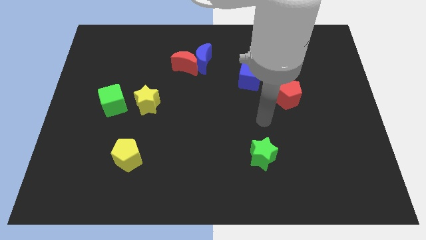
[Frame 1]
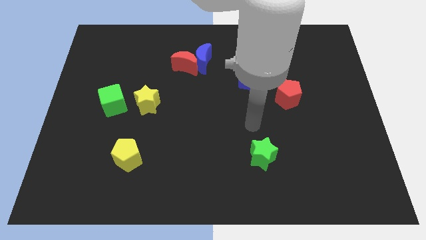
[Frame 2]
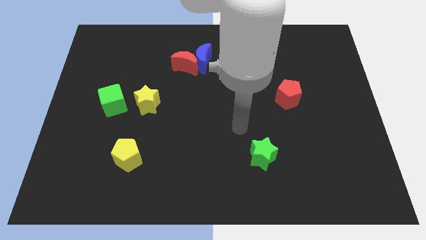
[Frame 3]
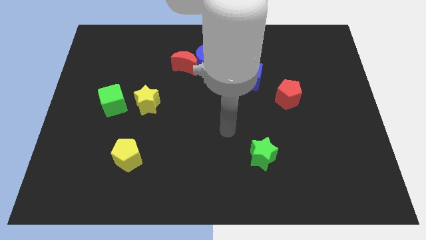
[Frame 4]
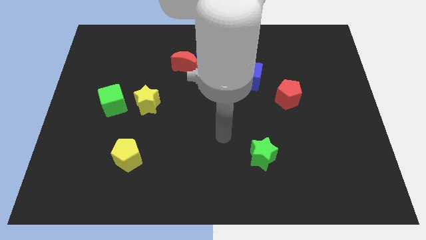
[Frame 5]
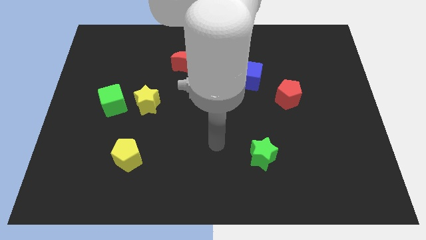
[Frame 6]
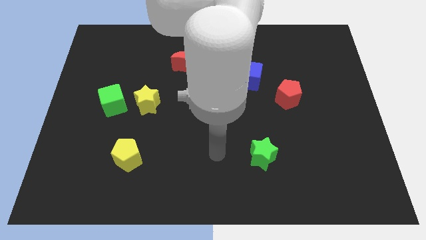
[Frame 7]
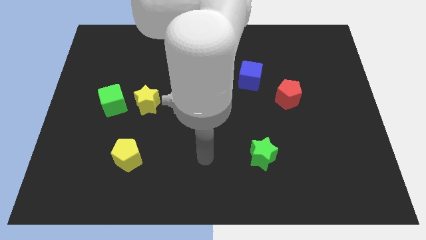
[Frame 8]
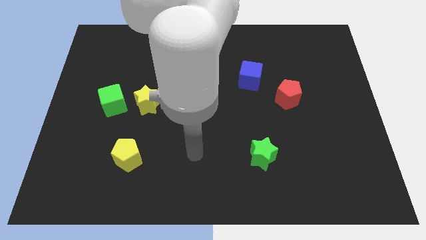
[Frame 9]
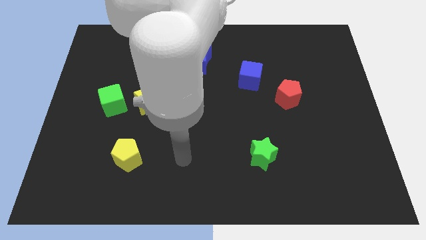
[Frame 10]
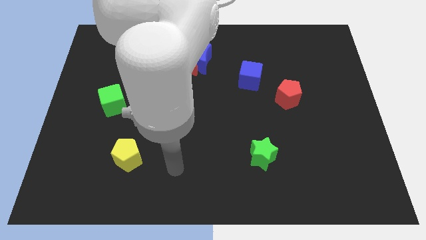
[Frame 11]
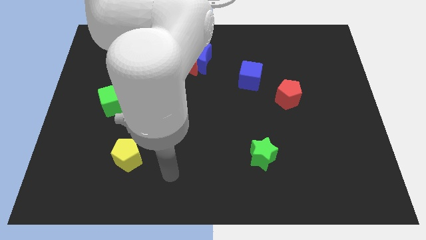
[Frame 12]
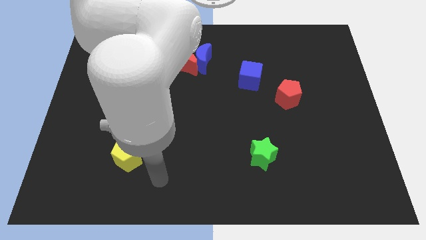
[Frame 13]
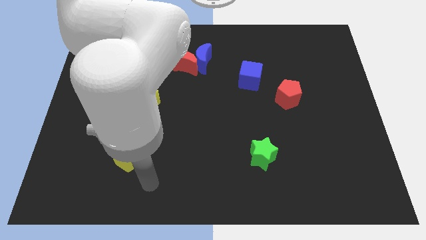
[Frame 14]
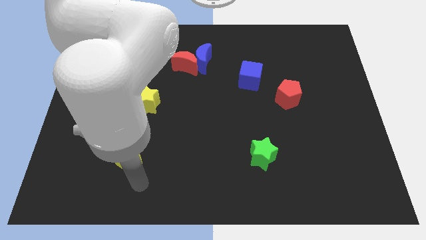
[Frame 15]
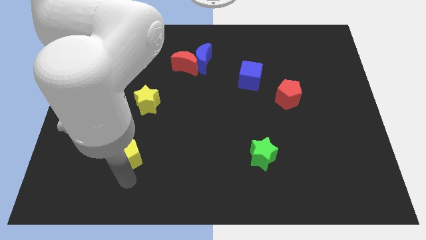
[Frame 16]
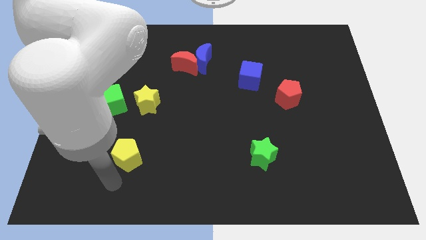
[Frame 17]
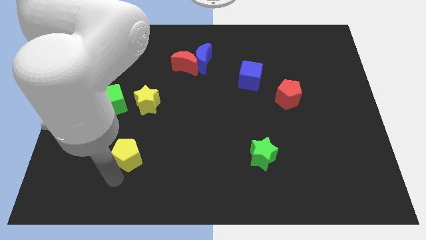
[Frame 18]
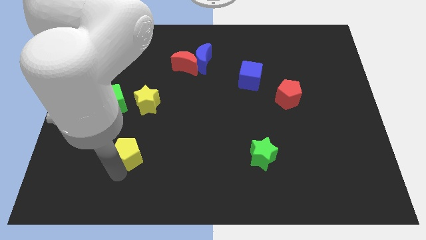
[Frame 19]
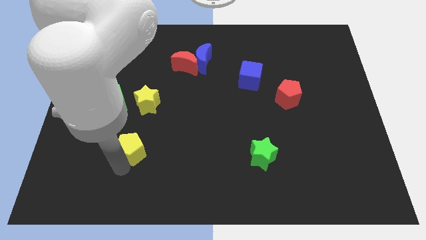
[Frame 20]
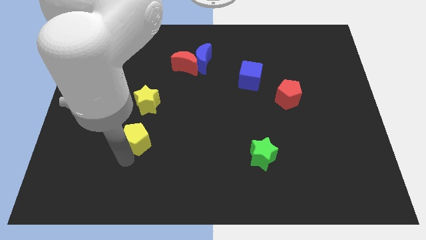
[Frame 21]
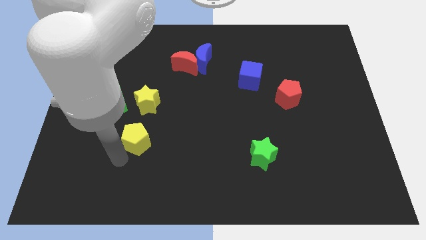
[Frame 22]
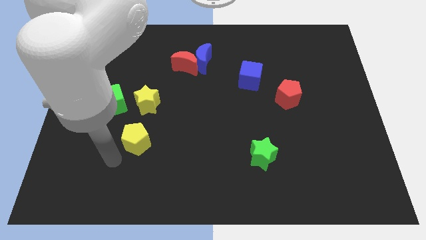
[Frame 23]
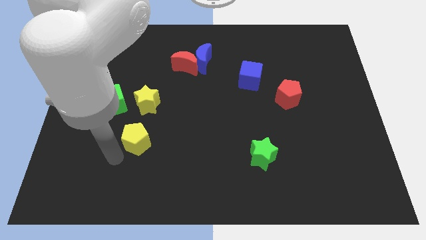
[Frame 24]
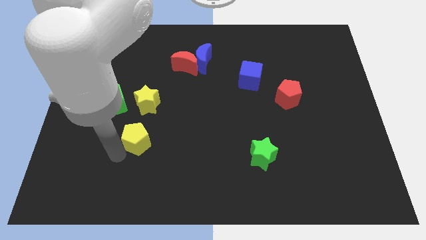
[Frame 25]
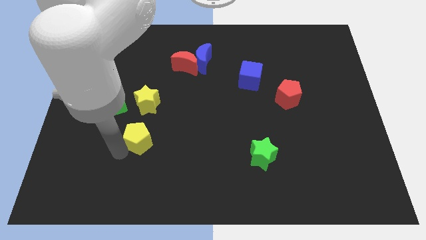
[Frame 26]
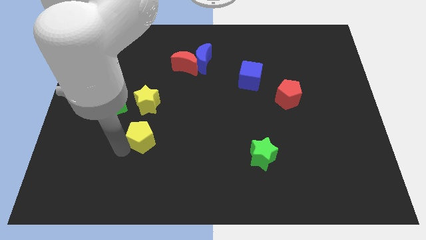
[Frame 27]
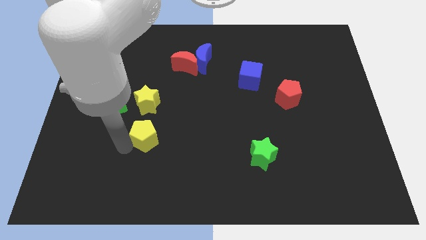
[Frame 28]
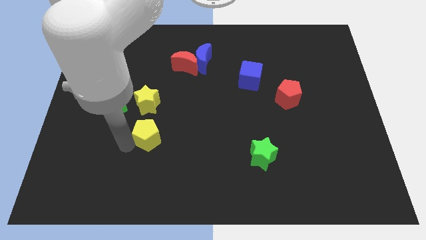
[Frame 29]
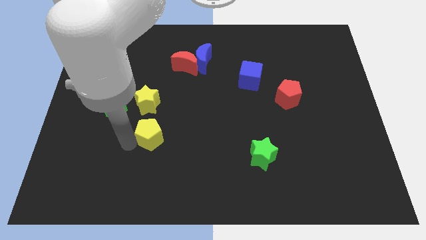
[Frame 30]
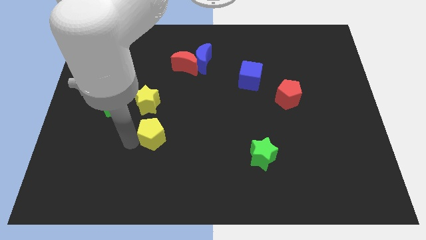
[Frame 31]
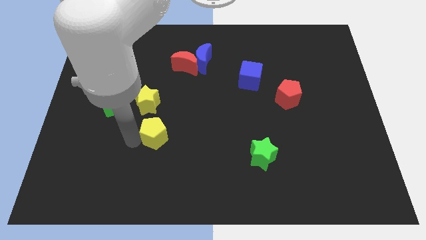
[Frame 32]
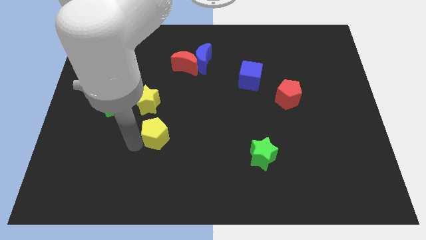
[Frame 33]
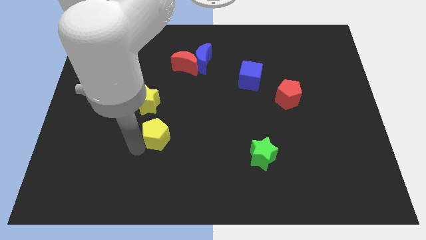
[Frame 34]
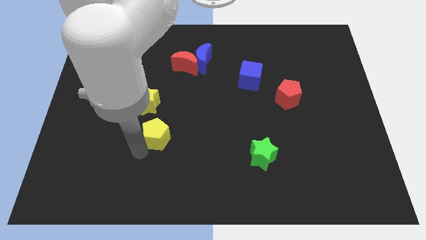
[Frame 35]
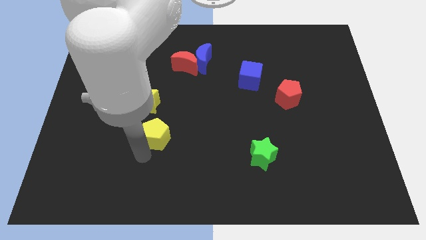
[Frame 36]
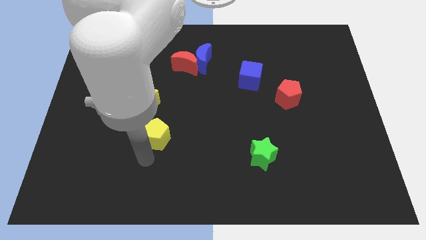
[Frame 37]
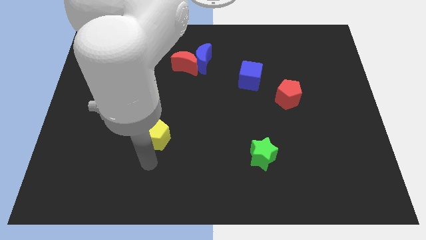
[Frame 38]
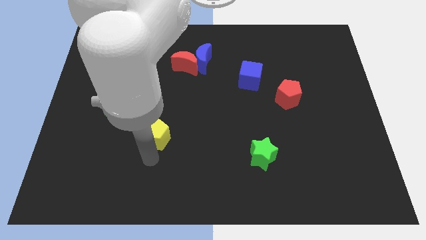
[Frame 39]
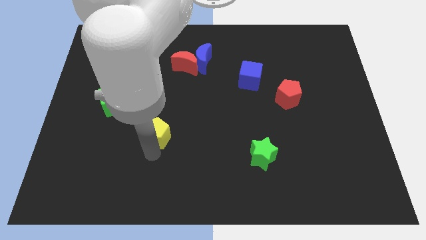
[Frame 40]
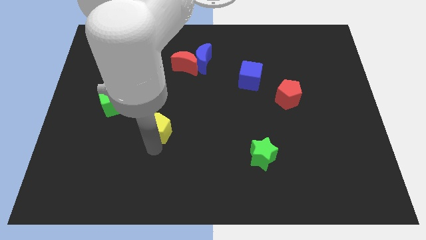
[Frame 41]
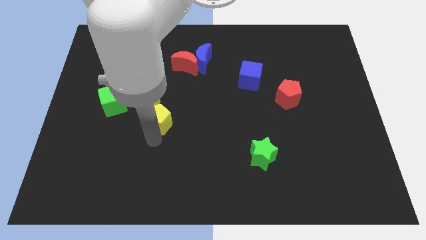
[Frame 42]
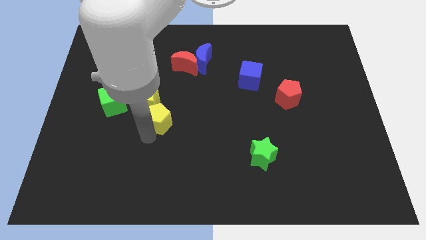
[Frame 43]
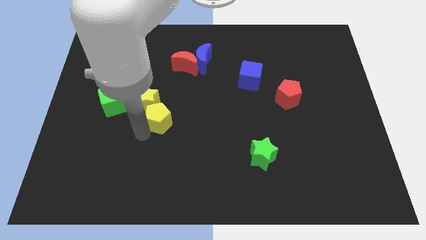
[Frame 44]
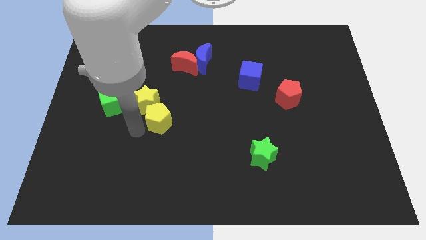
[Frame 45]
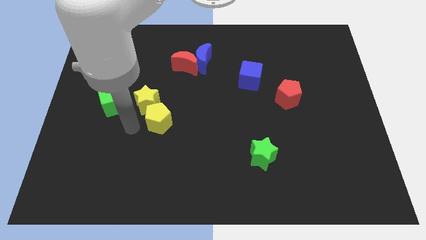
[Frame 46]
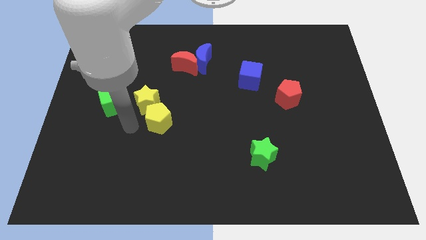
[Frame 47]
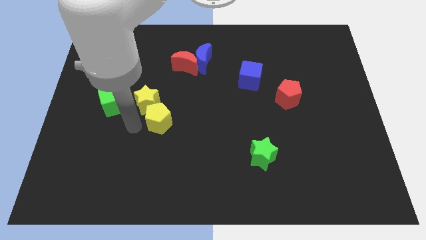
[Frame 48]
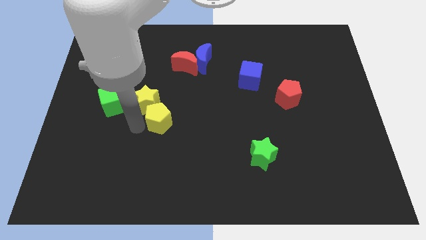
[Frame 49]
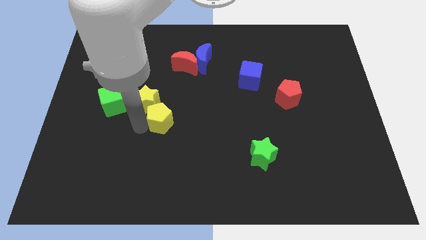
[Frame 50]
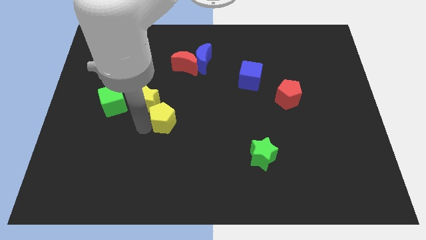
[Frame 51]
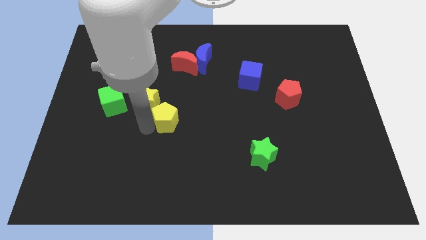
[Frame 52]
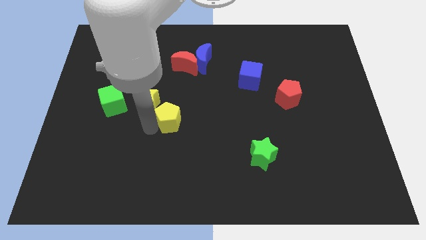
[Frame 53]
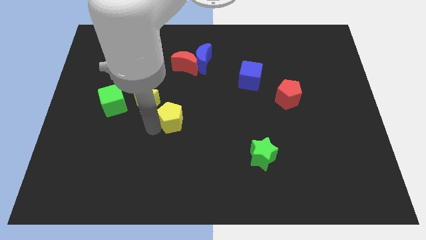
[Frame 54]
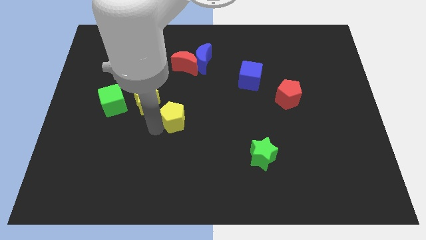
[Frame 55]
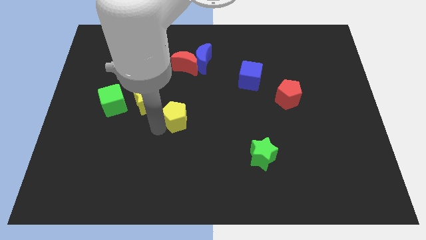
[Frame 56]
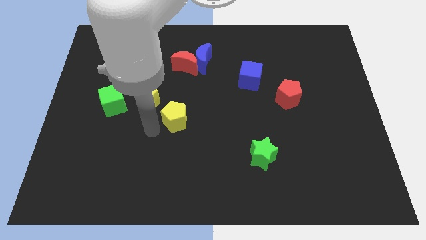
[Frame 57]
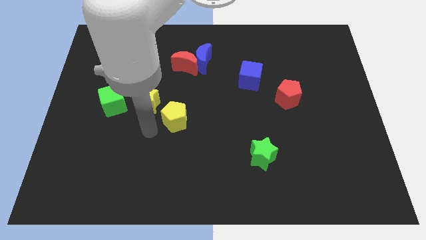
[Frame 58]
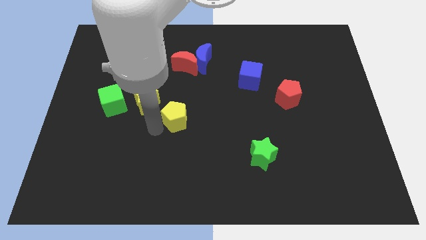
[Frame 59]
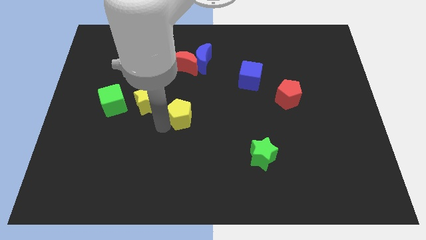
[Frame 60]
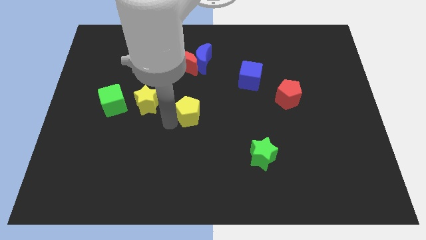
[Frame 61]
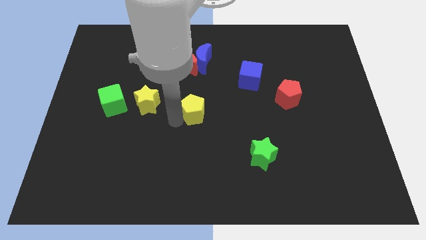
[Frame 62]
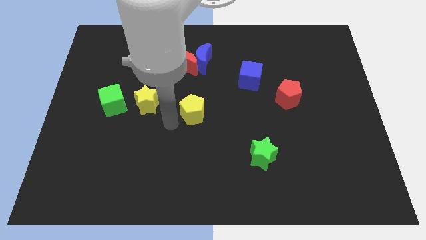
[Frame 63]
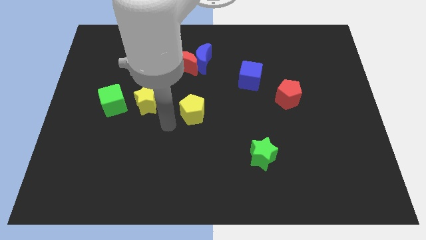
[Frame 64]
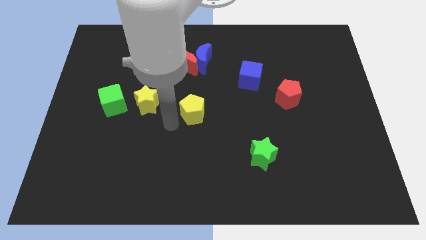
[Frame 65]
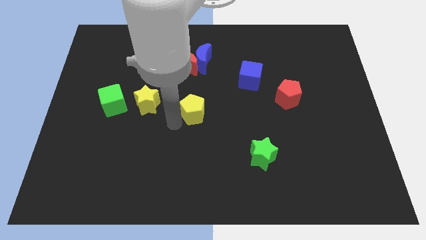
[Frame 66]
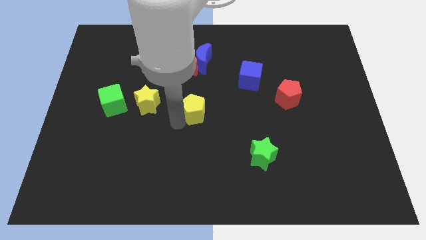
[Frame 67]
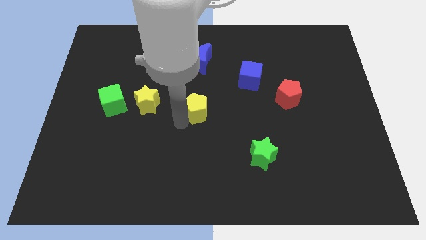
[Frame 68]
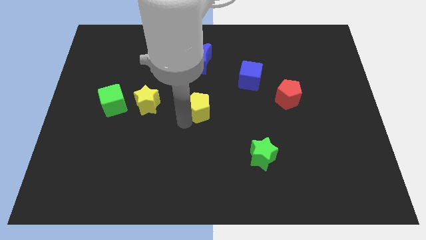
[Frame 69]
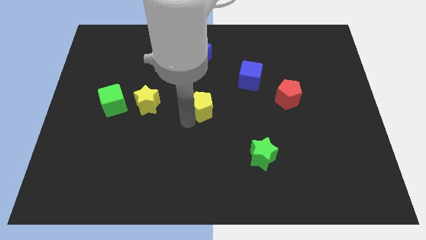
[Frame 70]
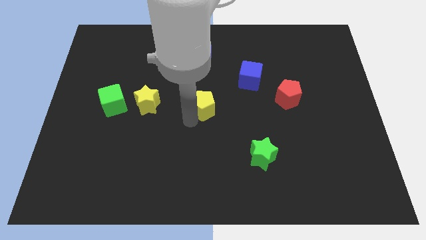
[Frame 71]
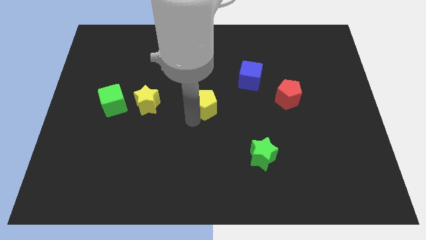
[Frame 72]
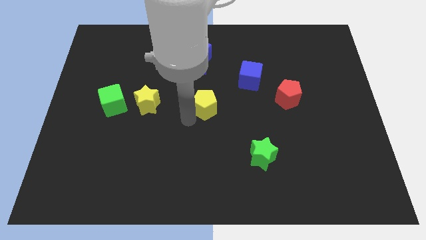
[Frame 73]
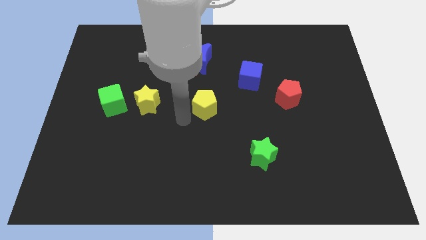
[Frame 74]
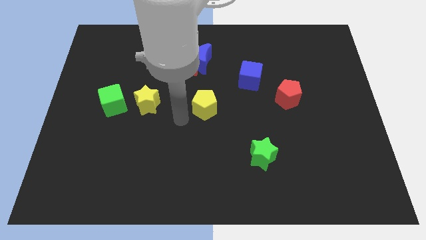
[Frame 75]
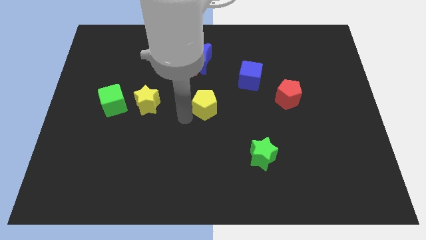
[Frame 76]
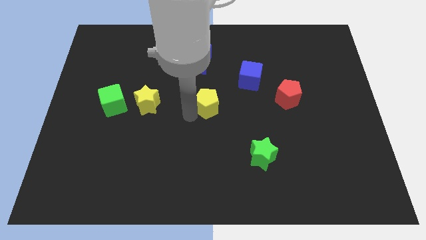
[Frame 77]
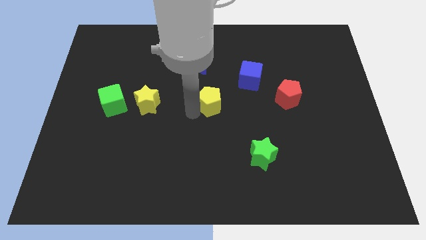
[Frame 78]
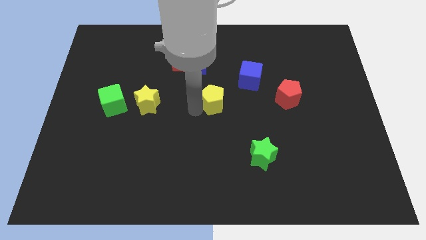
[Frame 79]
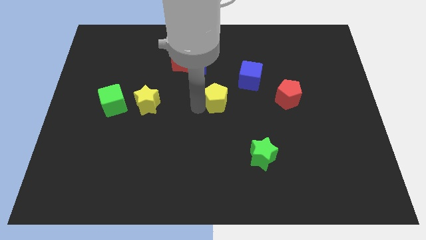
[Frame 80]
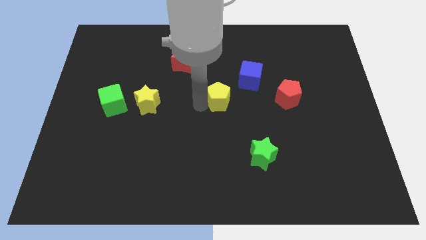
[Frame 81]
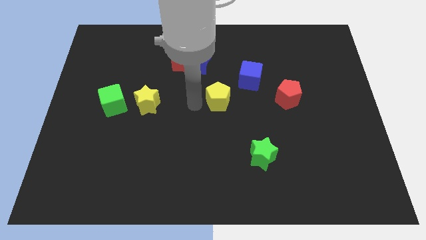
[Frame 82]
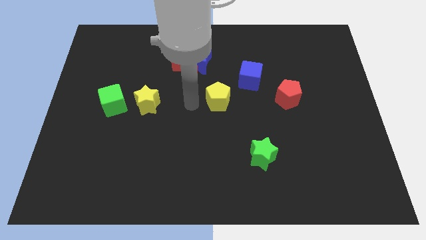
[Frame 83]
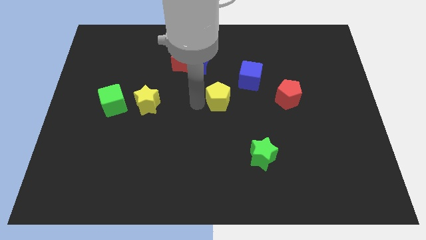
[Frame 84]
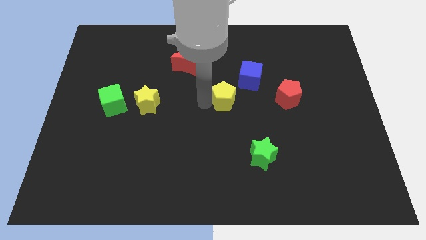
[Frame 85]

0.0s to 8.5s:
slide the yellow pentagon left of the red pentagon
